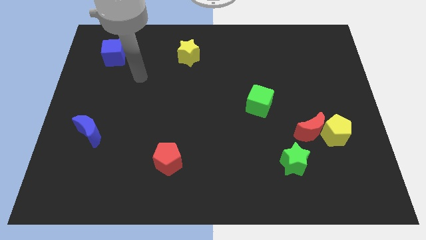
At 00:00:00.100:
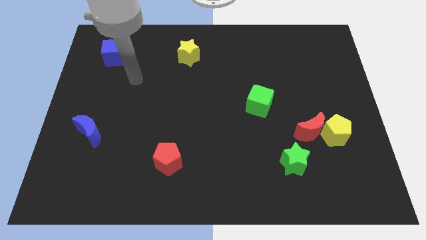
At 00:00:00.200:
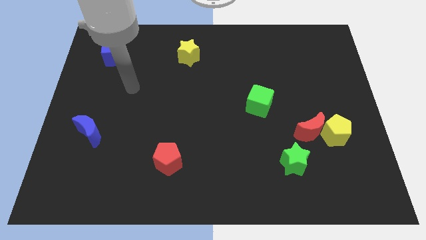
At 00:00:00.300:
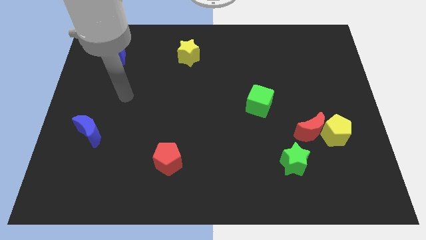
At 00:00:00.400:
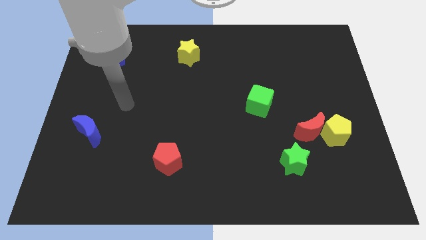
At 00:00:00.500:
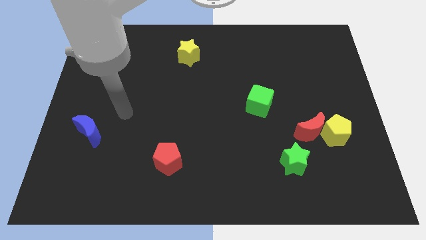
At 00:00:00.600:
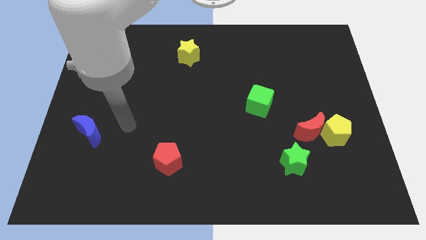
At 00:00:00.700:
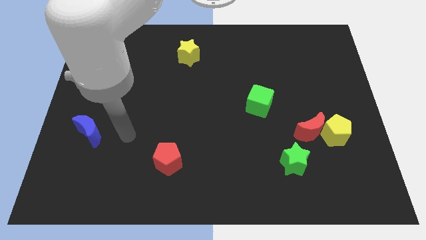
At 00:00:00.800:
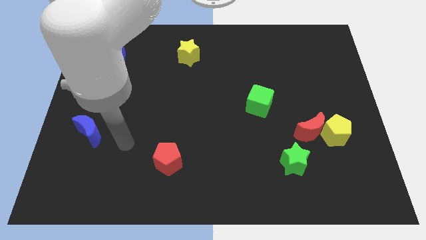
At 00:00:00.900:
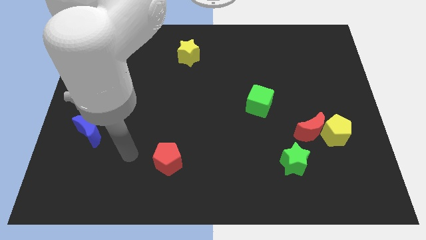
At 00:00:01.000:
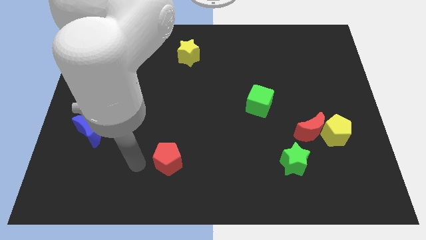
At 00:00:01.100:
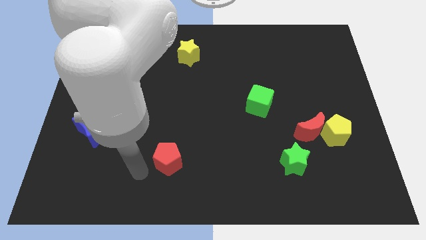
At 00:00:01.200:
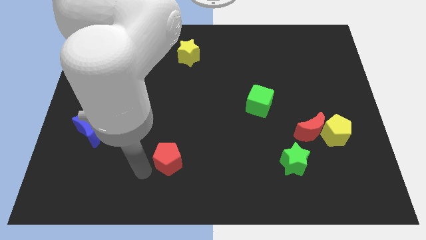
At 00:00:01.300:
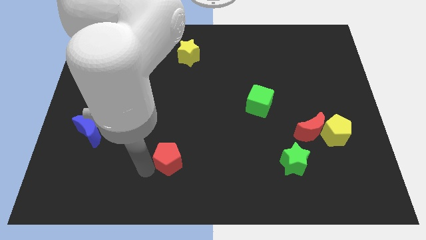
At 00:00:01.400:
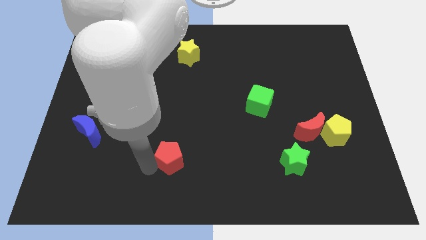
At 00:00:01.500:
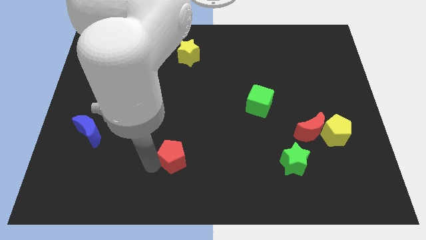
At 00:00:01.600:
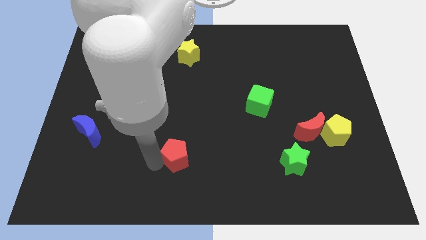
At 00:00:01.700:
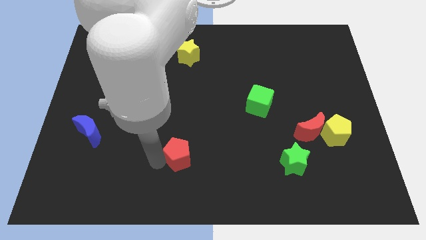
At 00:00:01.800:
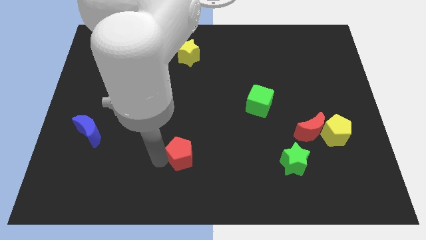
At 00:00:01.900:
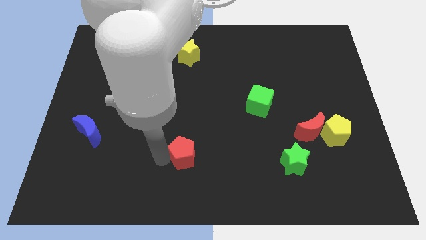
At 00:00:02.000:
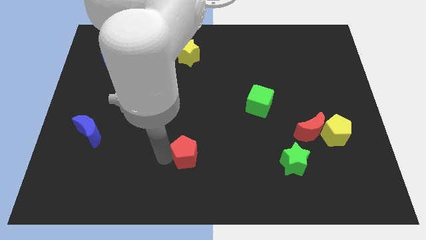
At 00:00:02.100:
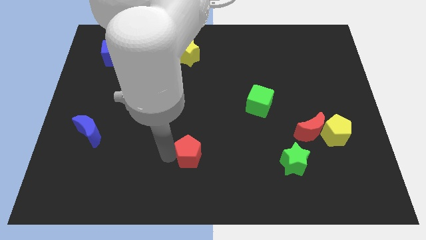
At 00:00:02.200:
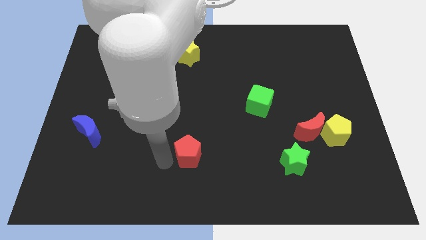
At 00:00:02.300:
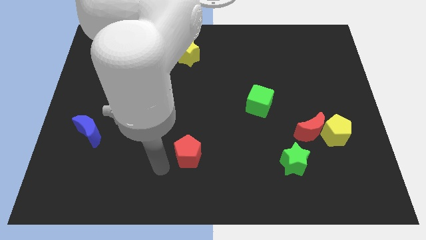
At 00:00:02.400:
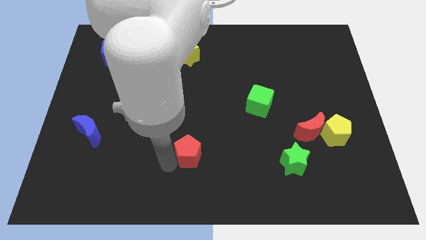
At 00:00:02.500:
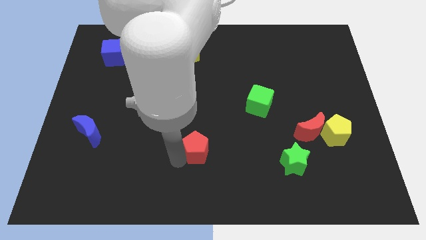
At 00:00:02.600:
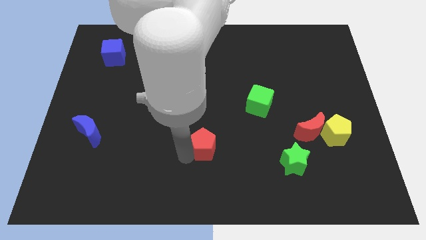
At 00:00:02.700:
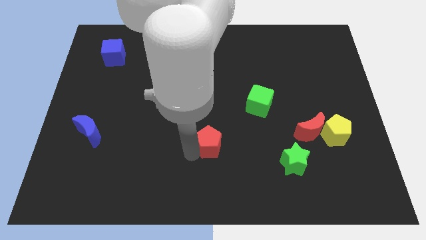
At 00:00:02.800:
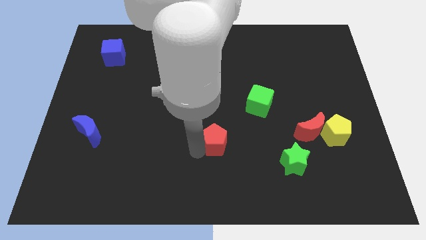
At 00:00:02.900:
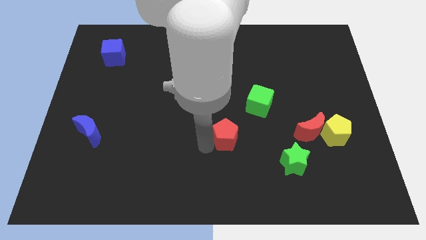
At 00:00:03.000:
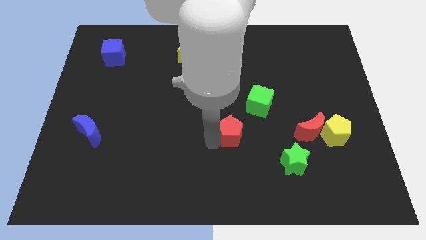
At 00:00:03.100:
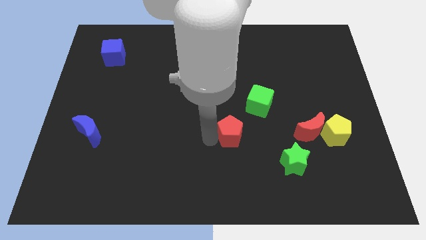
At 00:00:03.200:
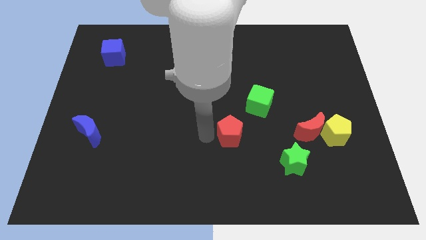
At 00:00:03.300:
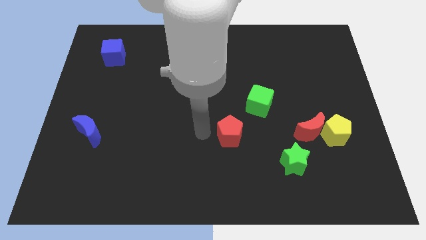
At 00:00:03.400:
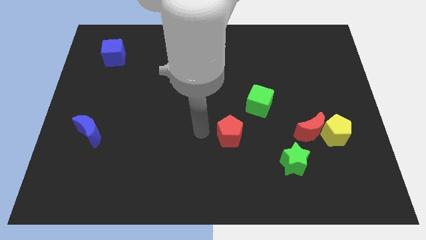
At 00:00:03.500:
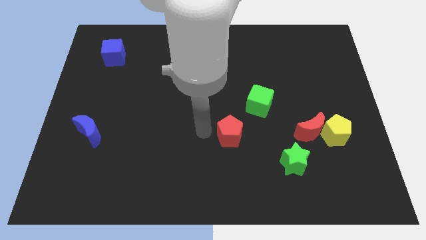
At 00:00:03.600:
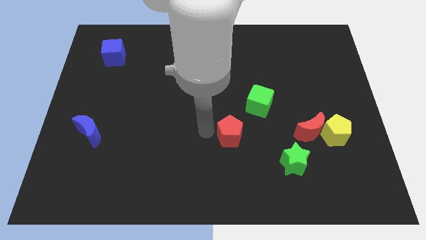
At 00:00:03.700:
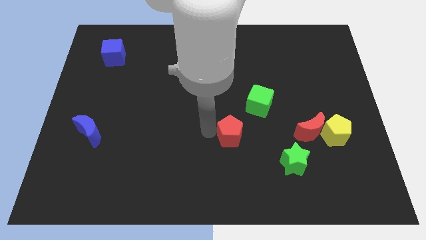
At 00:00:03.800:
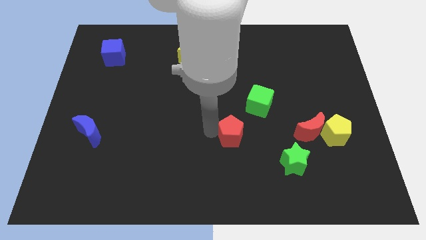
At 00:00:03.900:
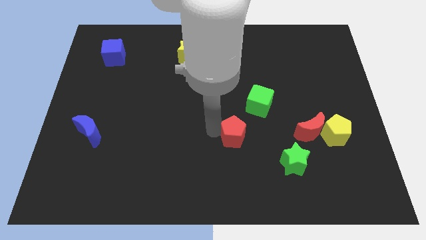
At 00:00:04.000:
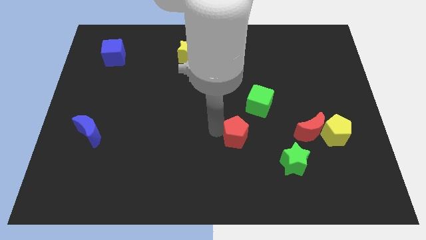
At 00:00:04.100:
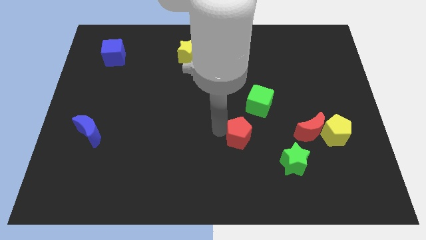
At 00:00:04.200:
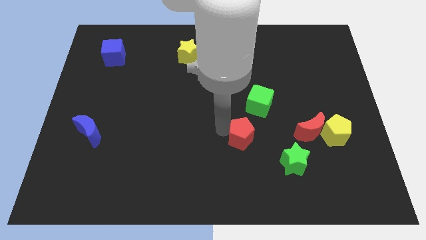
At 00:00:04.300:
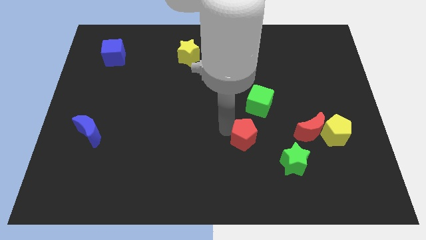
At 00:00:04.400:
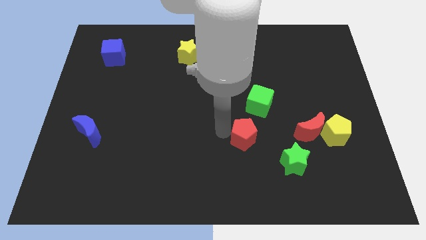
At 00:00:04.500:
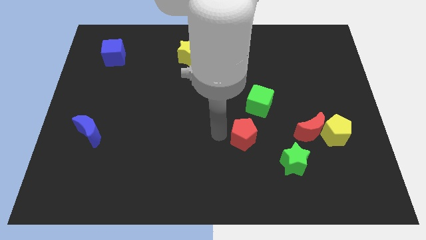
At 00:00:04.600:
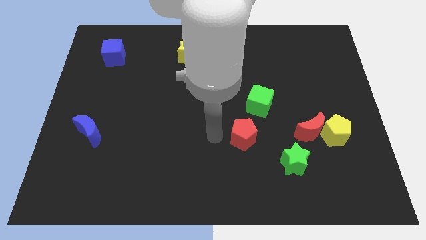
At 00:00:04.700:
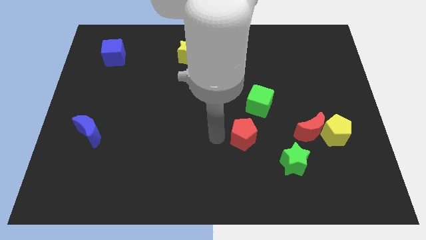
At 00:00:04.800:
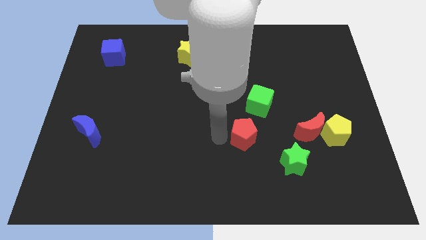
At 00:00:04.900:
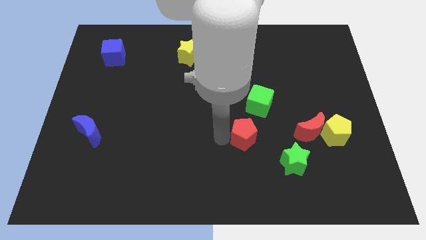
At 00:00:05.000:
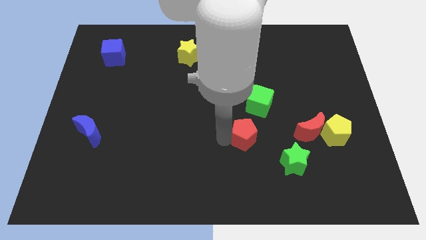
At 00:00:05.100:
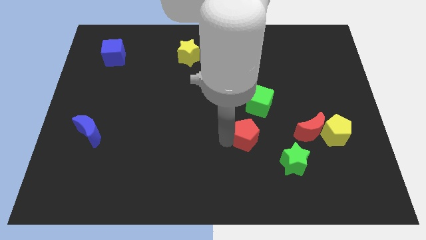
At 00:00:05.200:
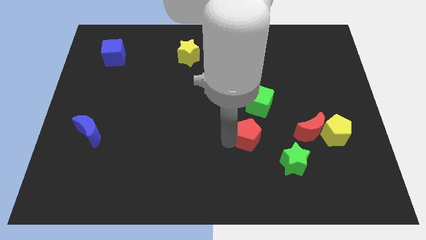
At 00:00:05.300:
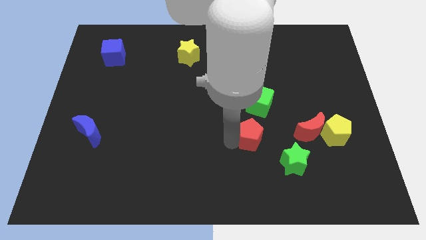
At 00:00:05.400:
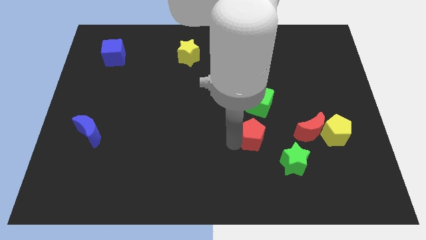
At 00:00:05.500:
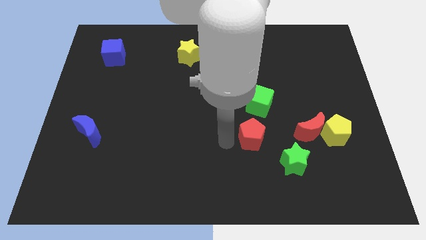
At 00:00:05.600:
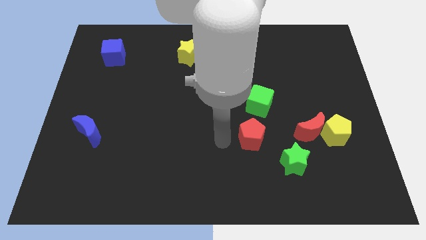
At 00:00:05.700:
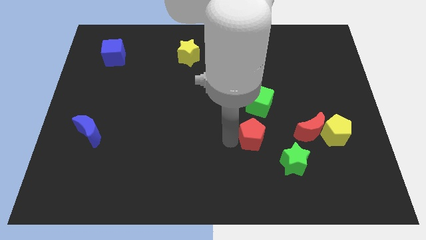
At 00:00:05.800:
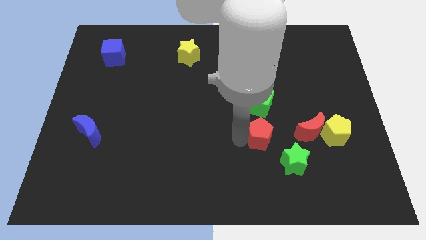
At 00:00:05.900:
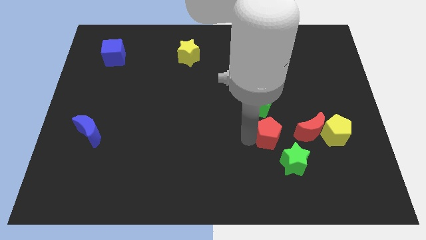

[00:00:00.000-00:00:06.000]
push the red pentagon just left of the yellow pentagon

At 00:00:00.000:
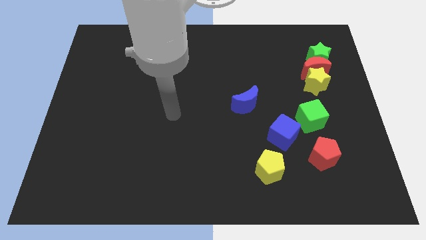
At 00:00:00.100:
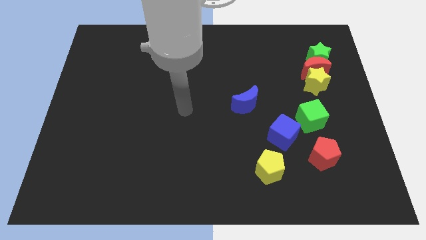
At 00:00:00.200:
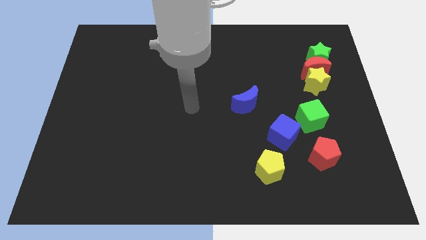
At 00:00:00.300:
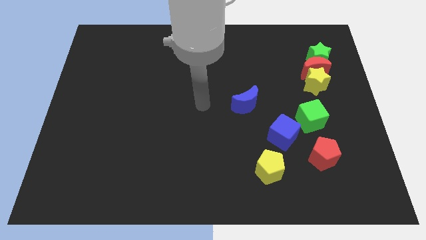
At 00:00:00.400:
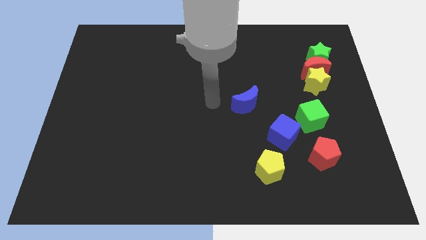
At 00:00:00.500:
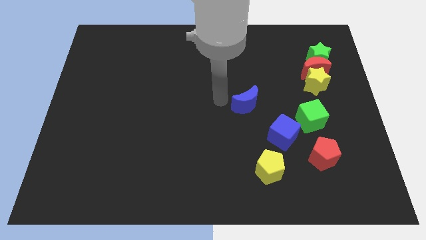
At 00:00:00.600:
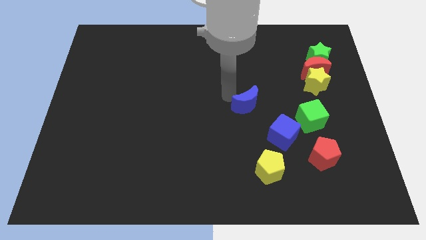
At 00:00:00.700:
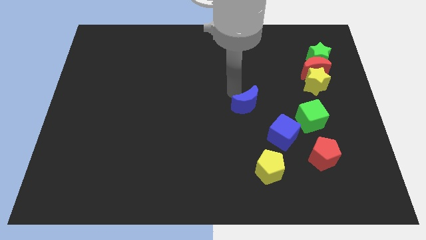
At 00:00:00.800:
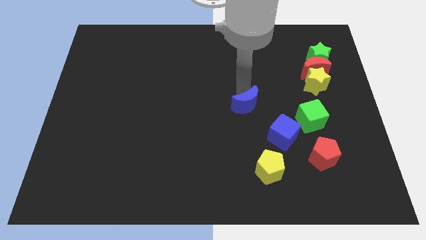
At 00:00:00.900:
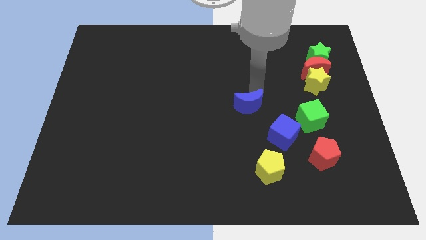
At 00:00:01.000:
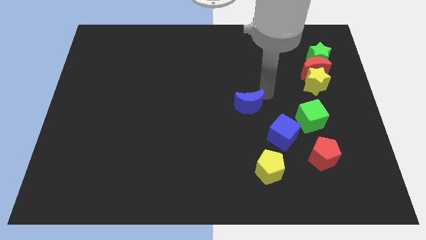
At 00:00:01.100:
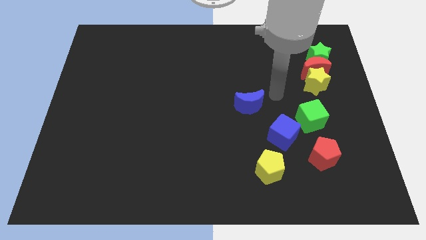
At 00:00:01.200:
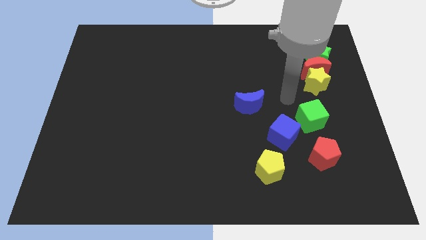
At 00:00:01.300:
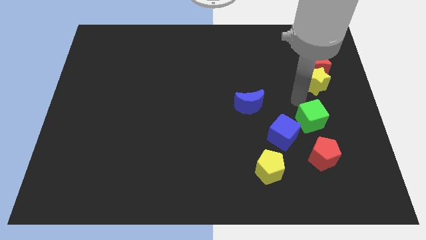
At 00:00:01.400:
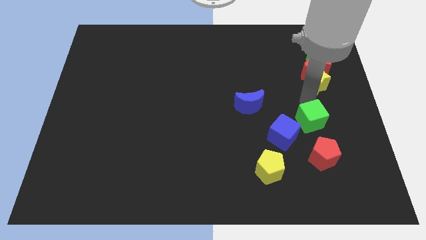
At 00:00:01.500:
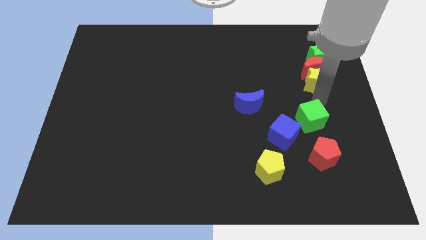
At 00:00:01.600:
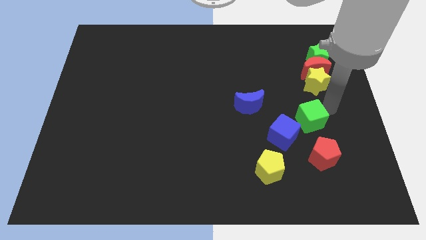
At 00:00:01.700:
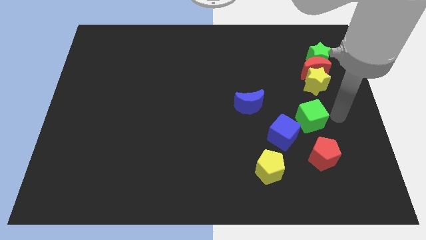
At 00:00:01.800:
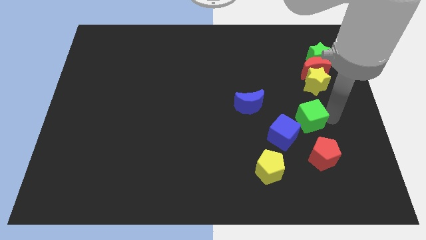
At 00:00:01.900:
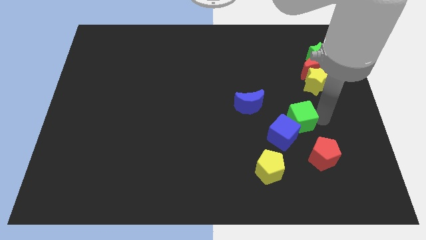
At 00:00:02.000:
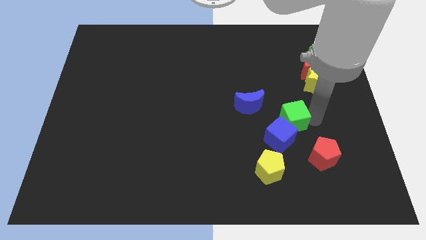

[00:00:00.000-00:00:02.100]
slide the green cube to the bottom right side of the blue moon
